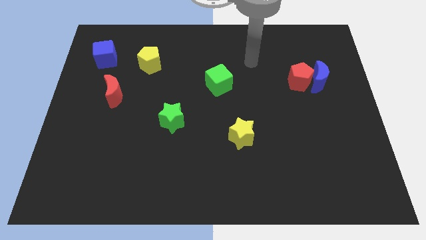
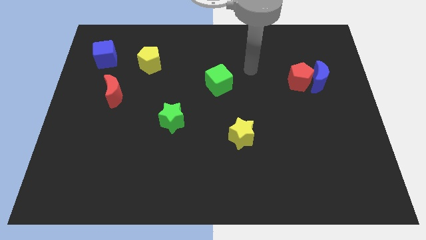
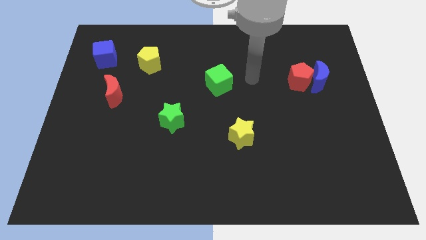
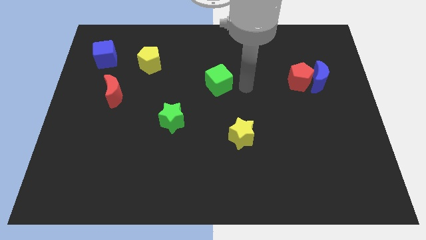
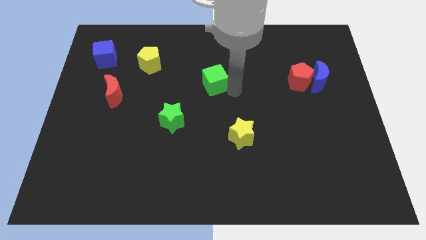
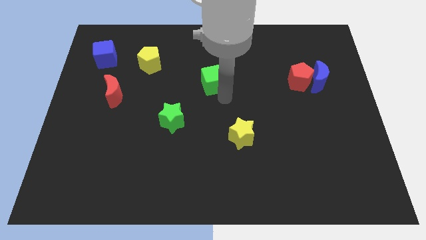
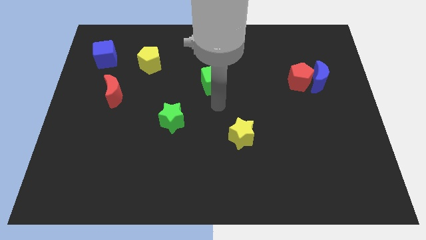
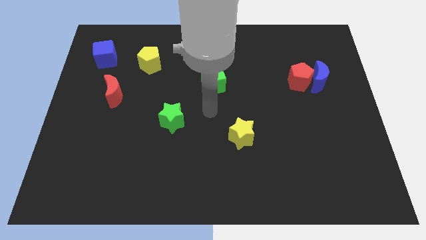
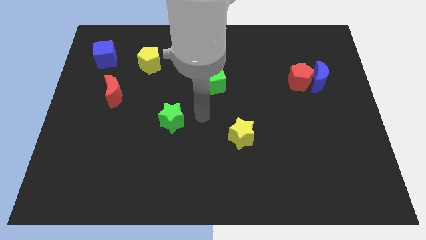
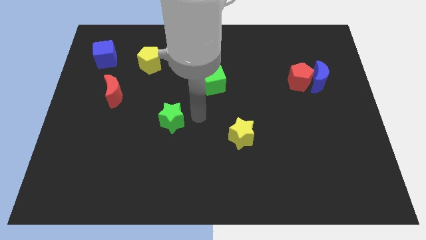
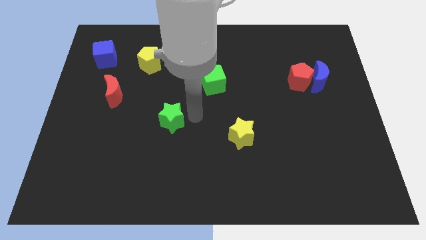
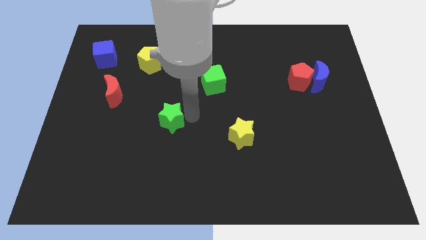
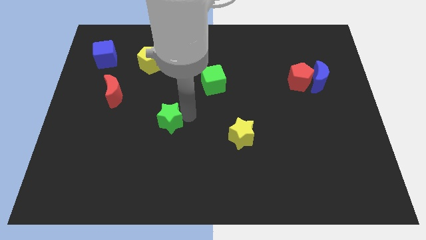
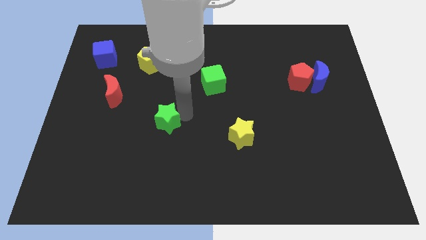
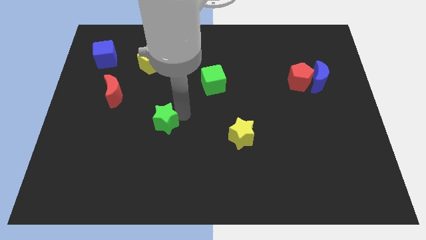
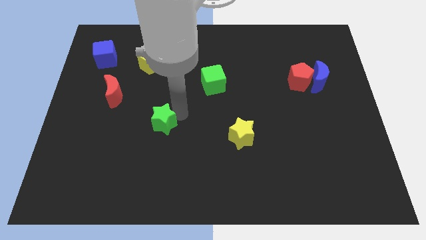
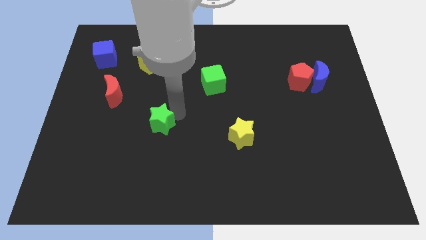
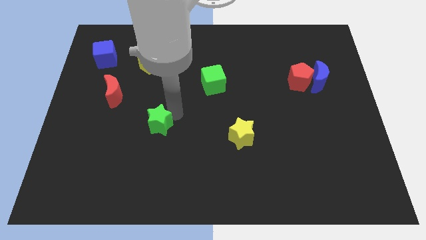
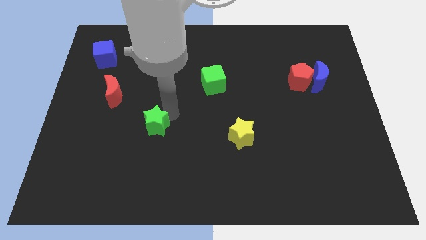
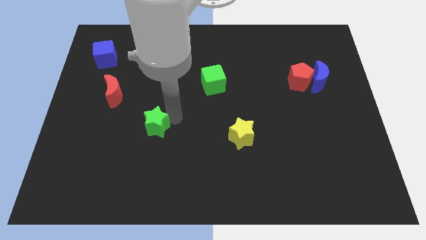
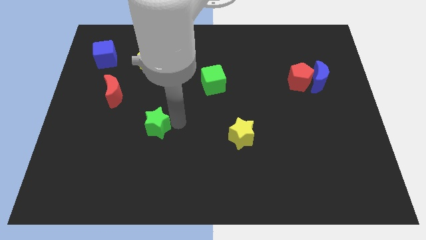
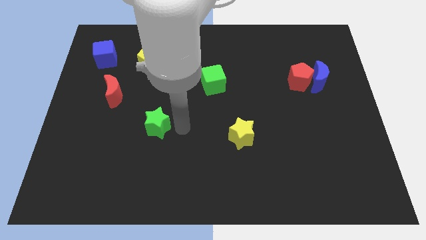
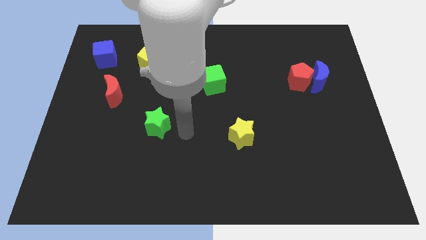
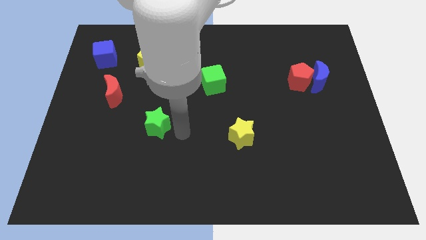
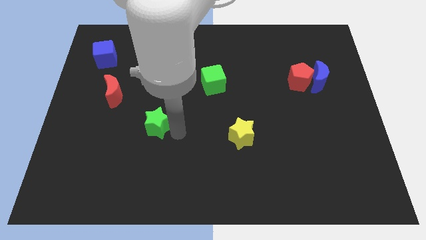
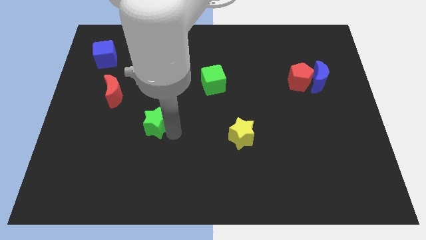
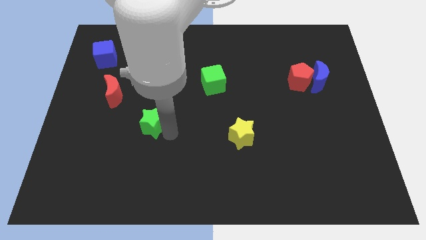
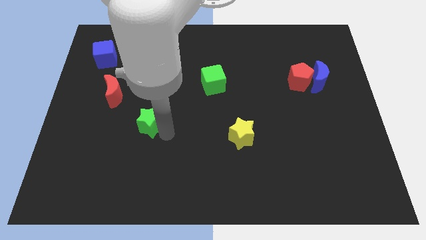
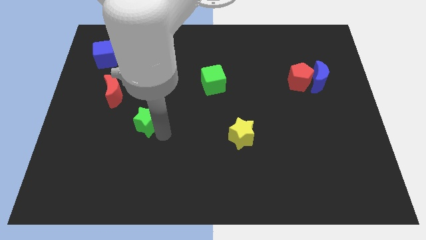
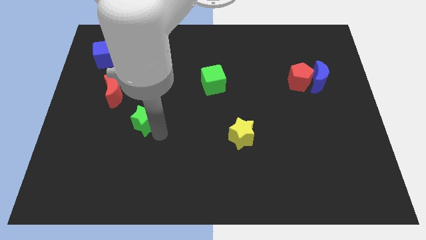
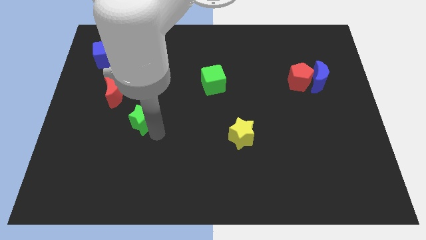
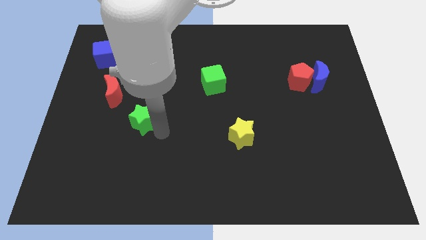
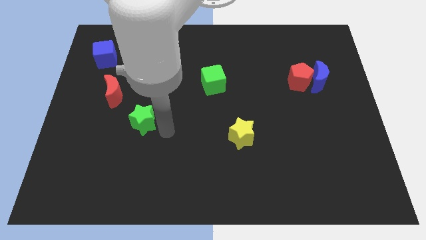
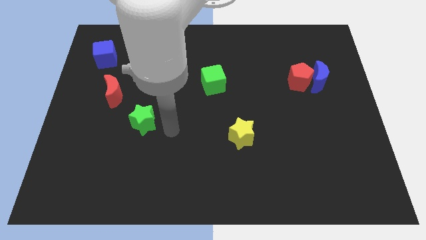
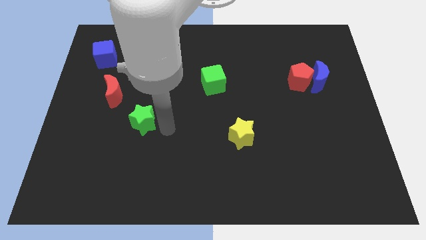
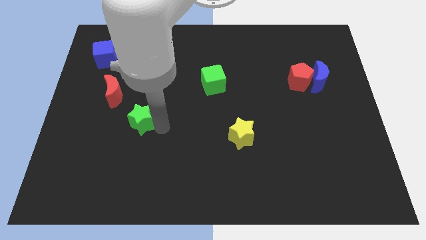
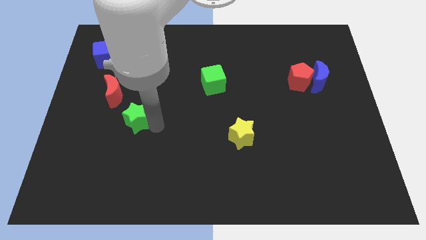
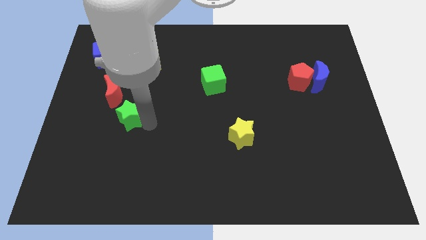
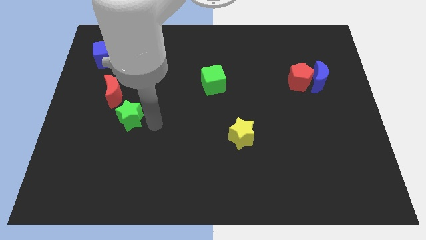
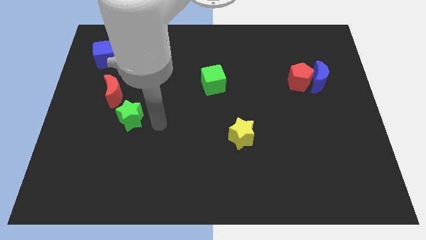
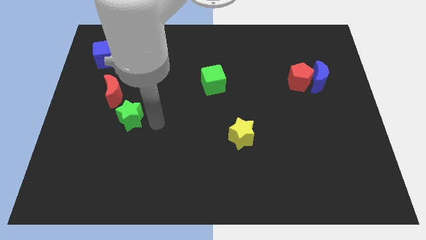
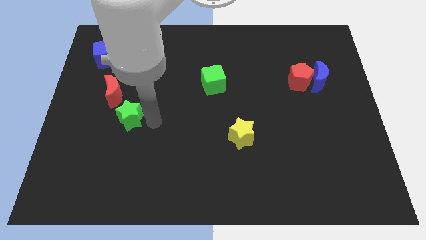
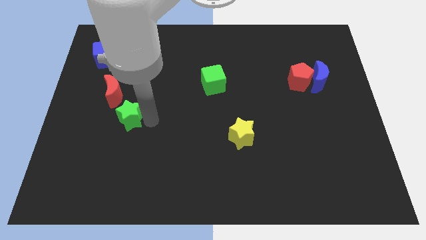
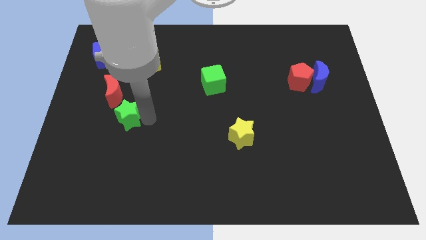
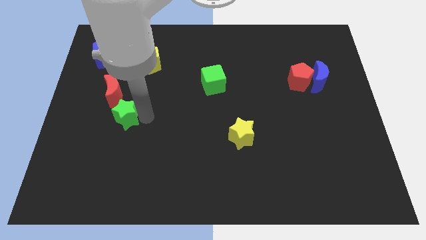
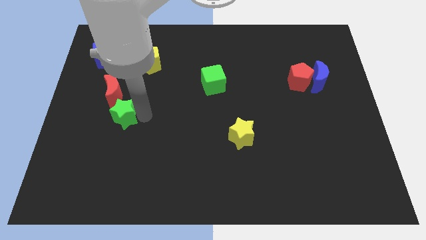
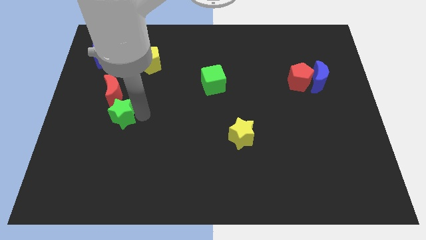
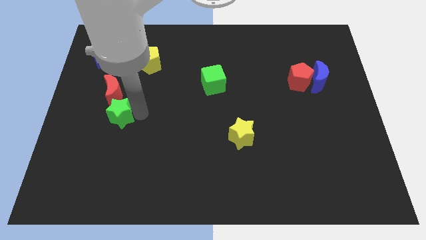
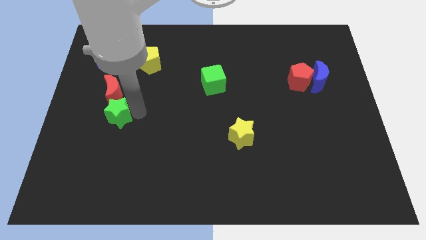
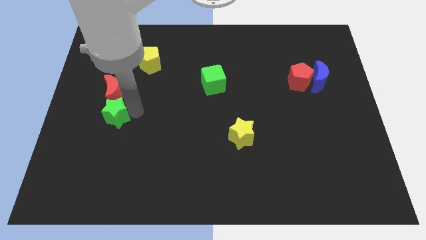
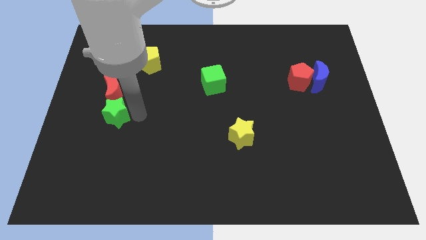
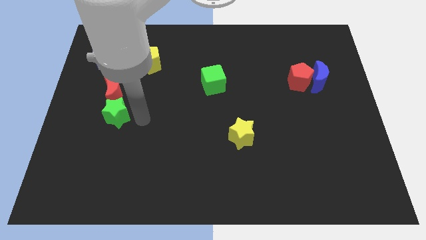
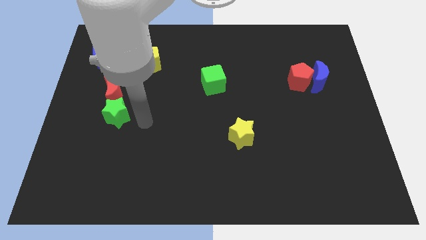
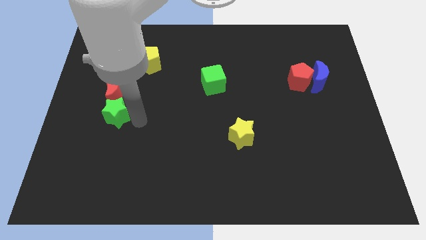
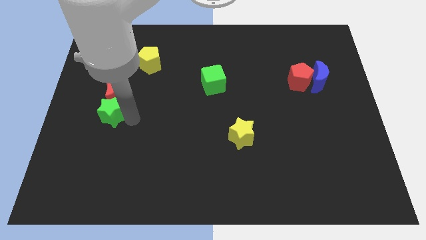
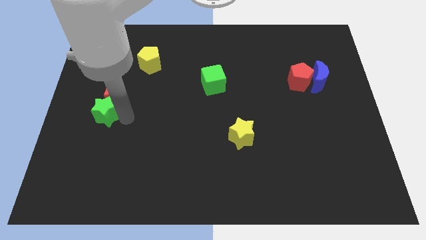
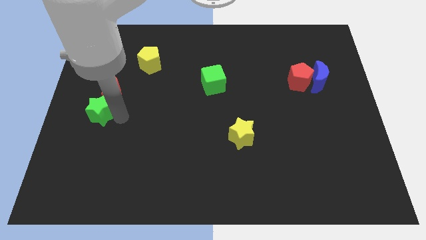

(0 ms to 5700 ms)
put the green star to the left side

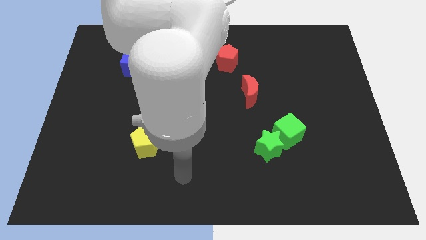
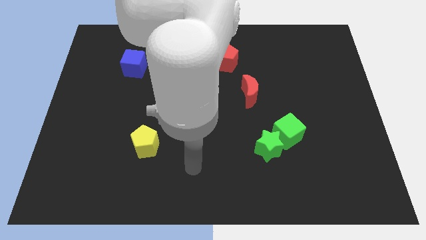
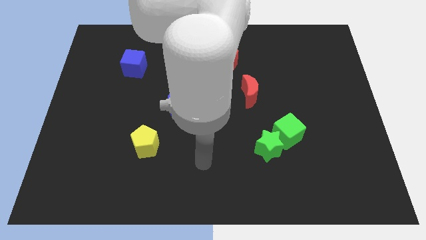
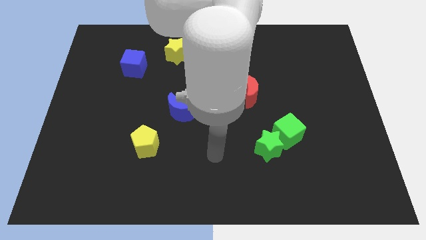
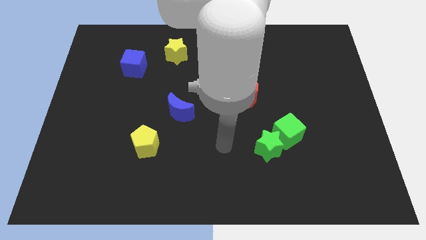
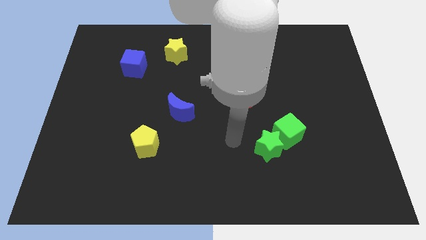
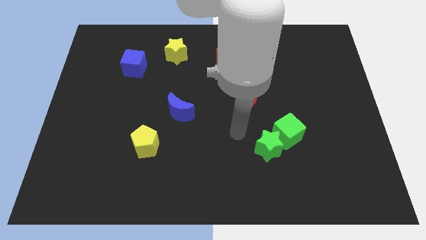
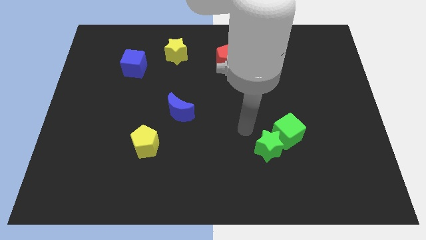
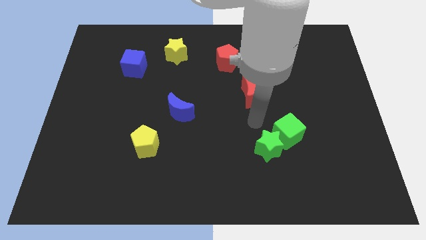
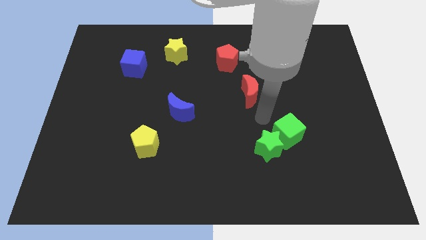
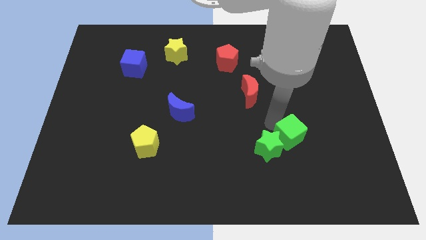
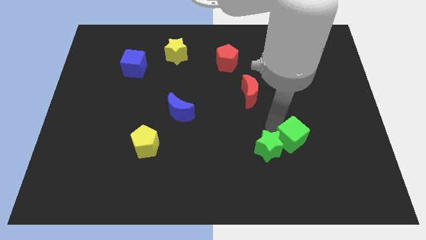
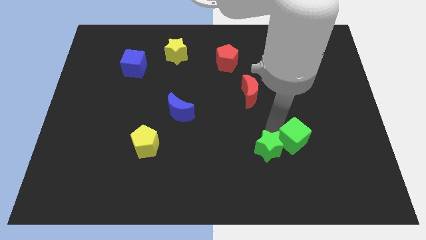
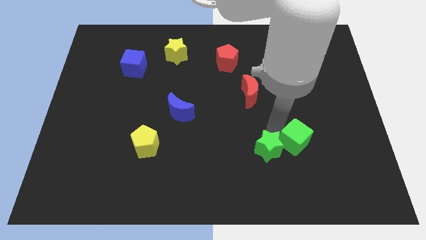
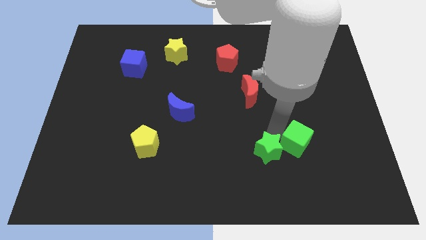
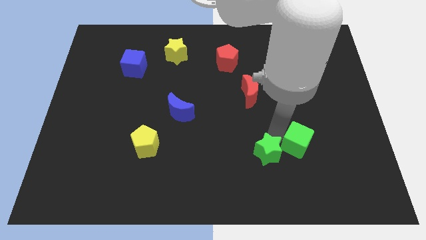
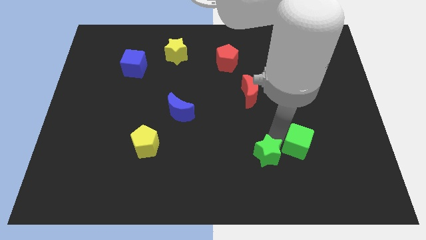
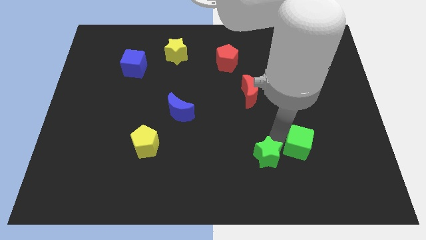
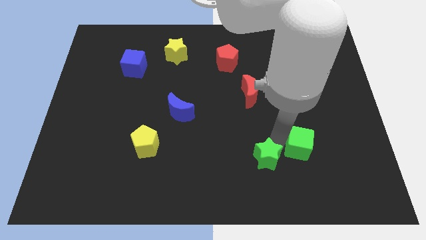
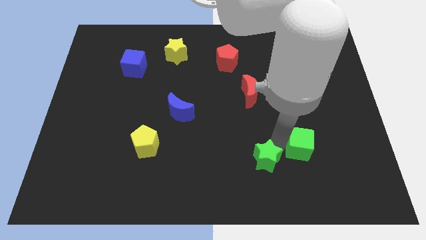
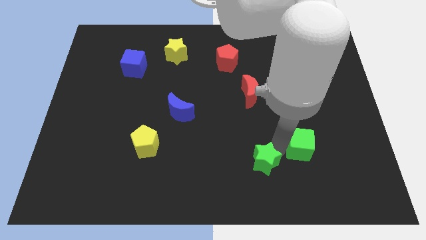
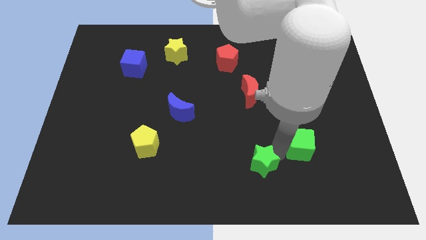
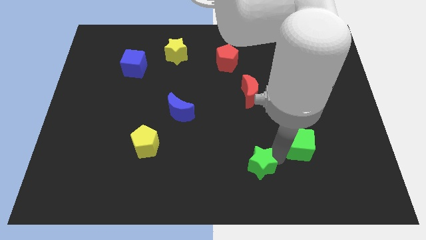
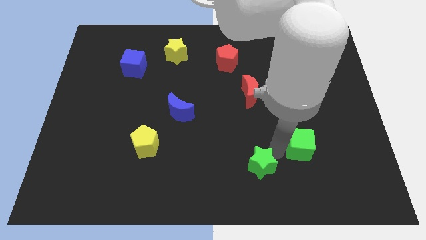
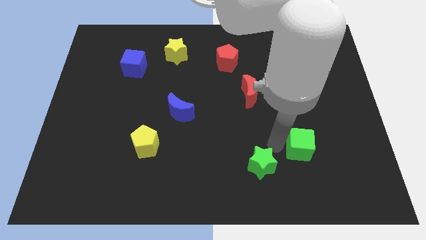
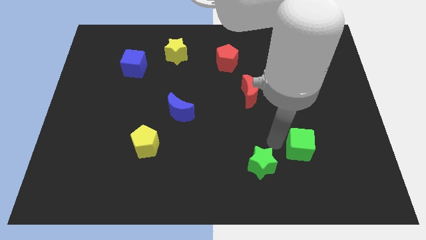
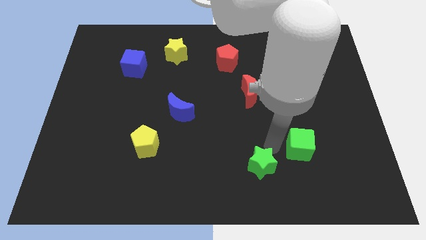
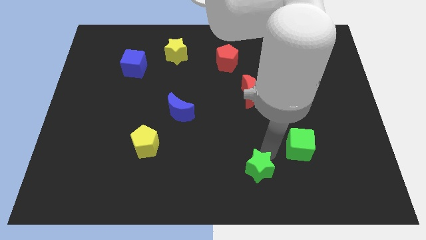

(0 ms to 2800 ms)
slide the green star to the bottom
